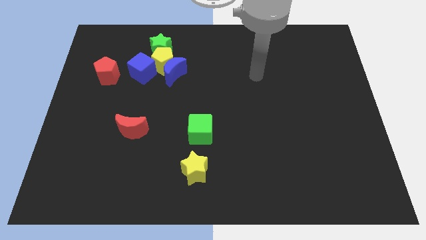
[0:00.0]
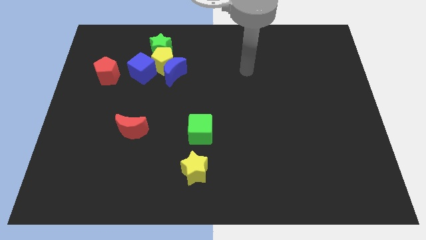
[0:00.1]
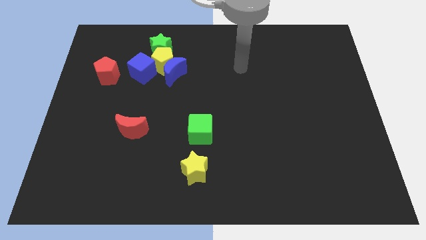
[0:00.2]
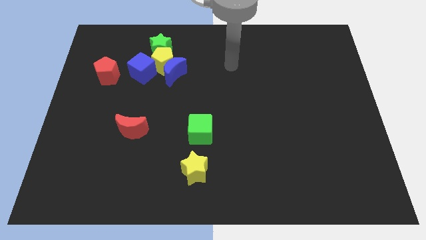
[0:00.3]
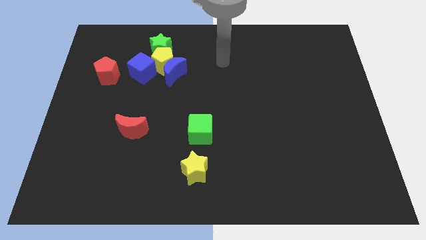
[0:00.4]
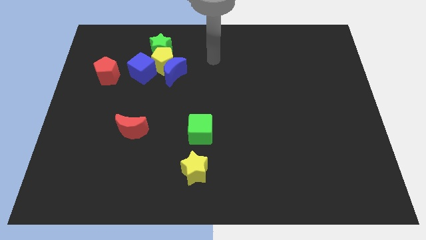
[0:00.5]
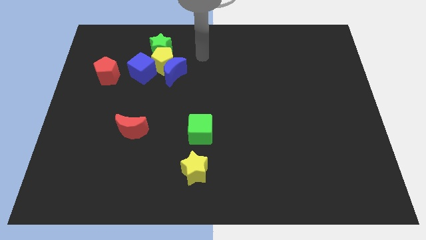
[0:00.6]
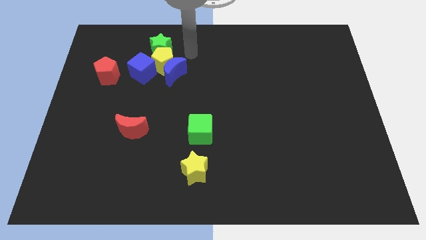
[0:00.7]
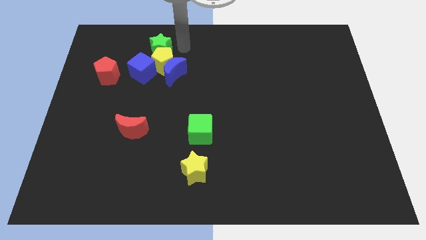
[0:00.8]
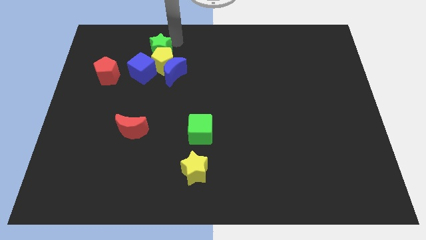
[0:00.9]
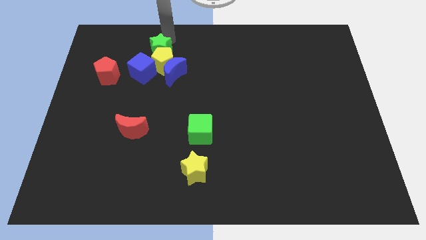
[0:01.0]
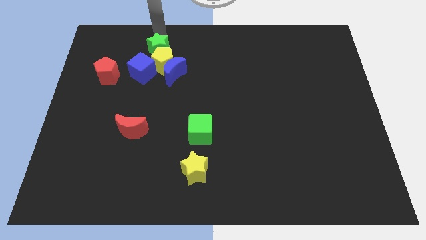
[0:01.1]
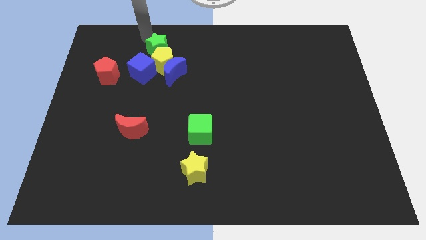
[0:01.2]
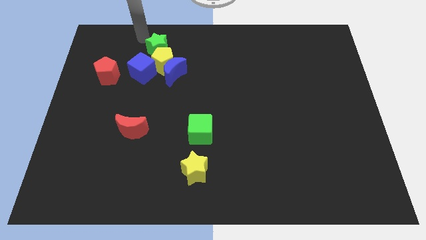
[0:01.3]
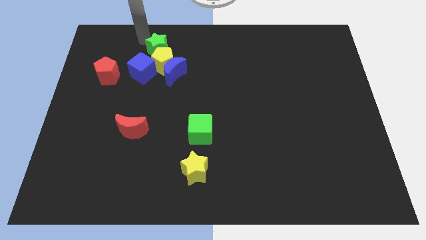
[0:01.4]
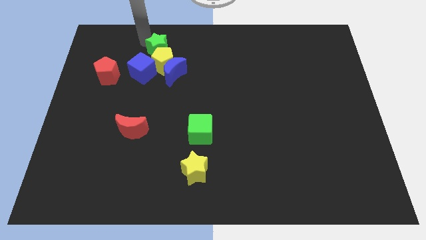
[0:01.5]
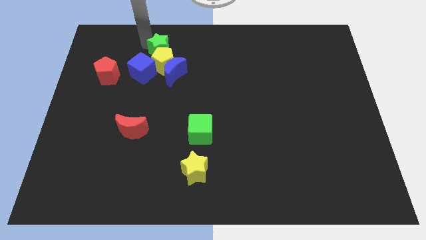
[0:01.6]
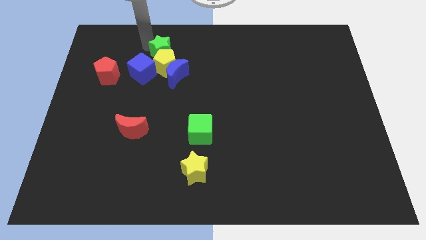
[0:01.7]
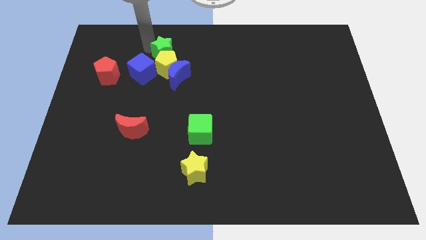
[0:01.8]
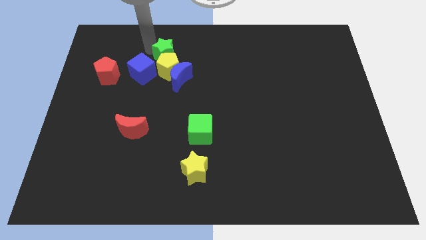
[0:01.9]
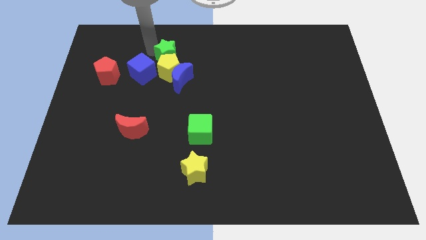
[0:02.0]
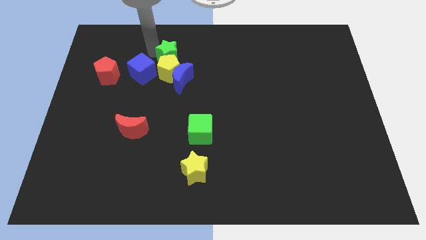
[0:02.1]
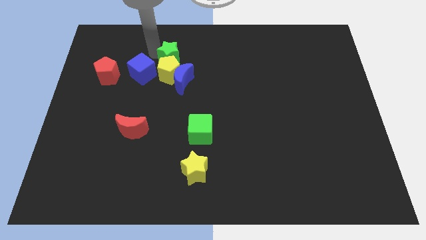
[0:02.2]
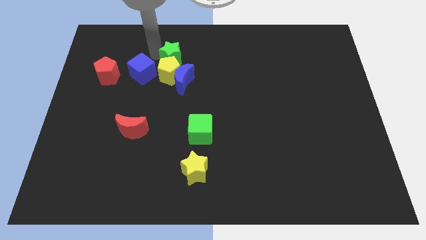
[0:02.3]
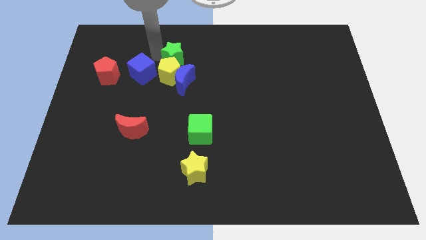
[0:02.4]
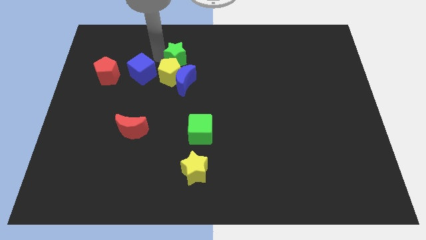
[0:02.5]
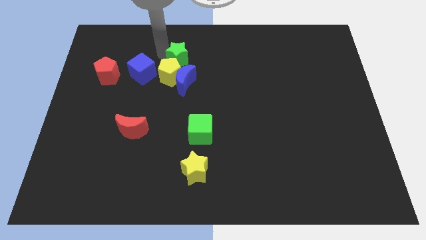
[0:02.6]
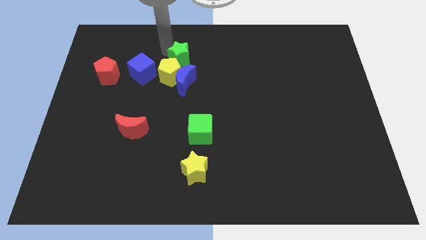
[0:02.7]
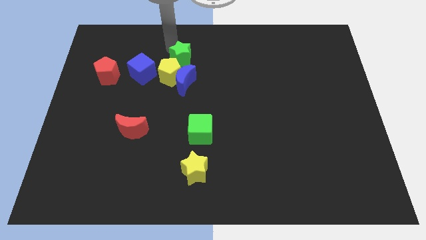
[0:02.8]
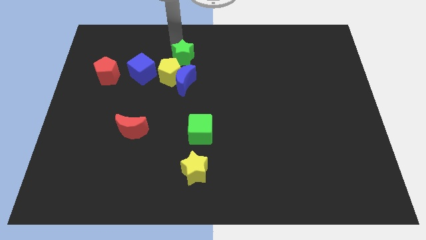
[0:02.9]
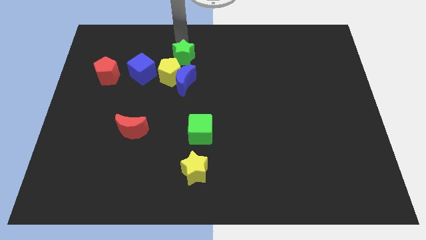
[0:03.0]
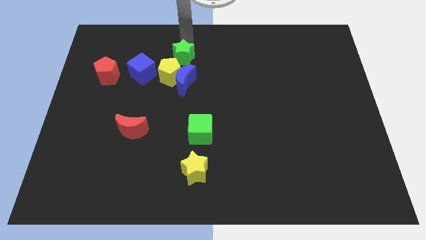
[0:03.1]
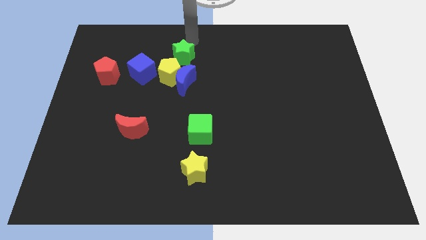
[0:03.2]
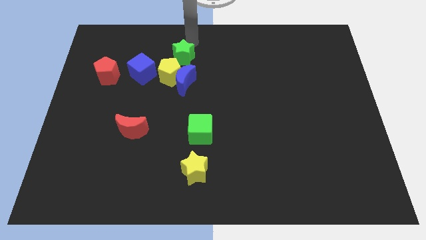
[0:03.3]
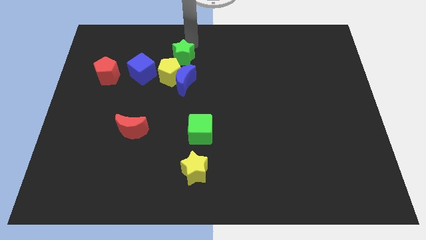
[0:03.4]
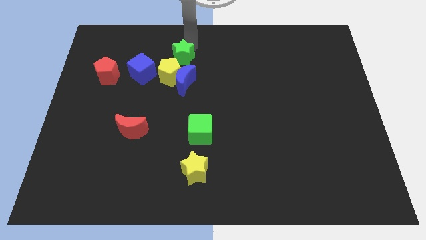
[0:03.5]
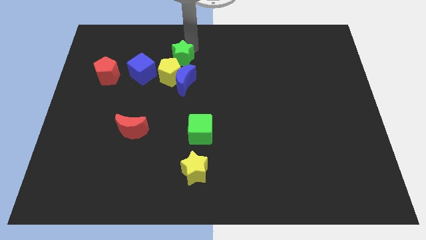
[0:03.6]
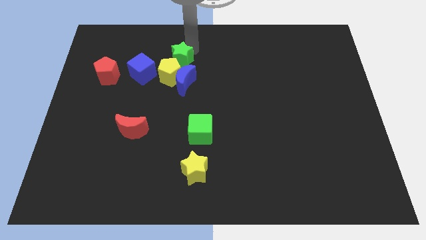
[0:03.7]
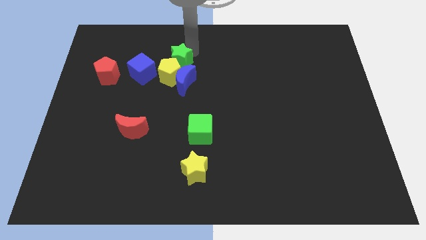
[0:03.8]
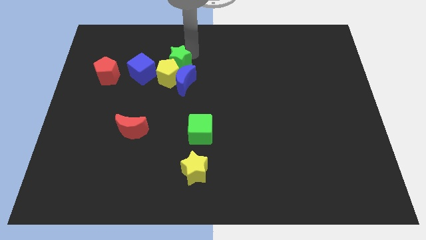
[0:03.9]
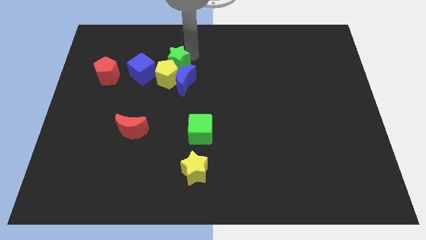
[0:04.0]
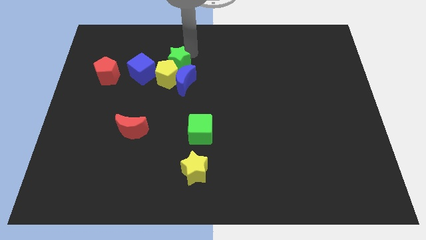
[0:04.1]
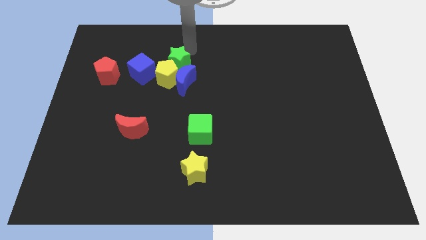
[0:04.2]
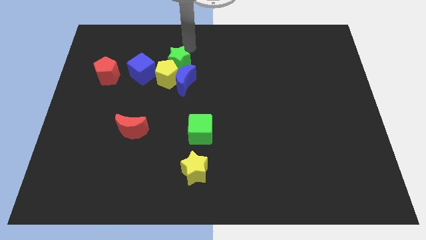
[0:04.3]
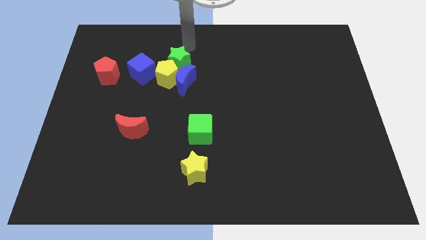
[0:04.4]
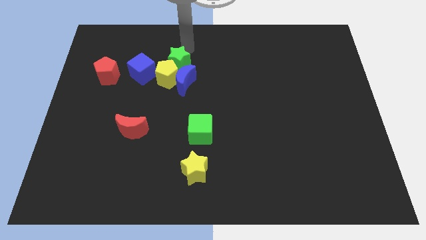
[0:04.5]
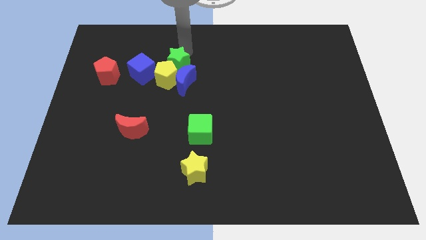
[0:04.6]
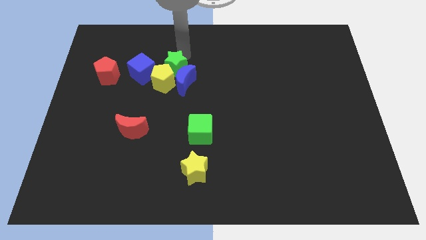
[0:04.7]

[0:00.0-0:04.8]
slide the green star close to the blue moon

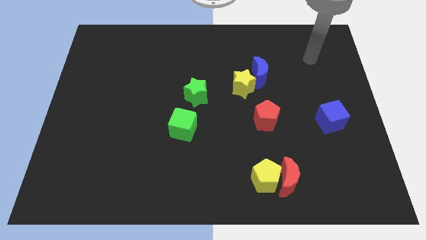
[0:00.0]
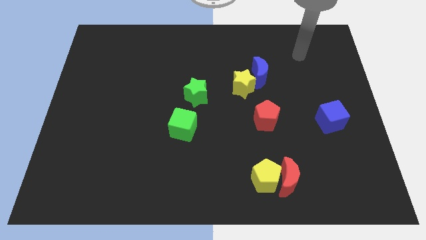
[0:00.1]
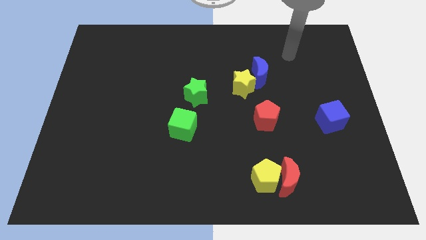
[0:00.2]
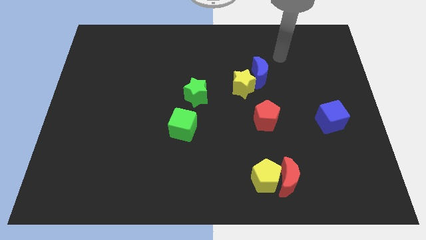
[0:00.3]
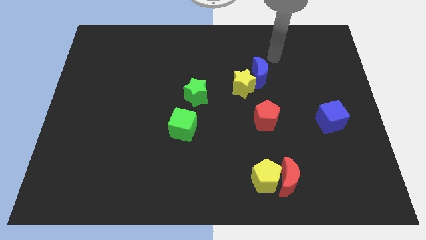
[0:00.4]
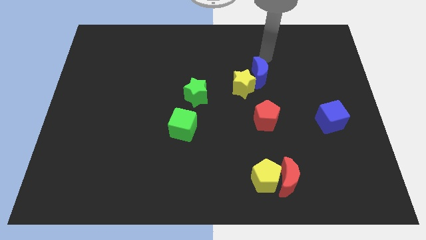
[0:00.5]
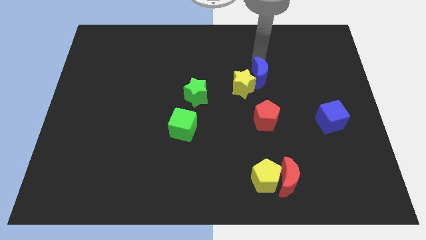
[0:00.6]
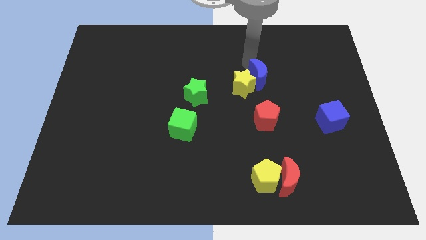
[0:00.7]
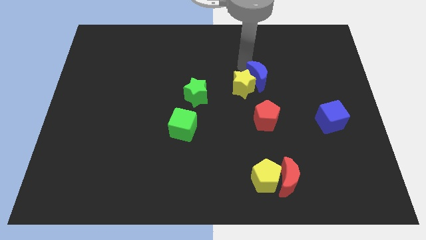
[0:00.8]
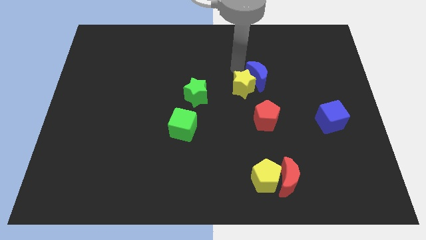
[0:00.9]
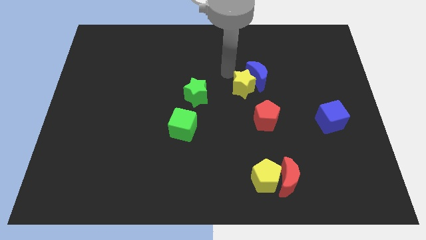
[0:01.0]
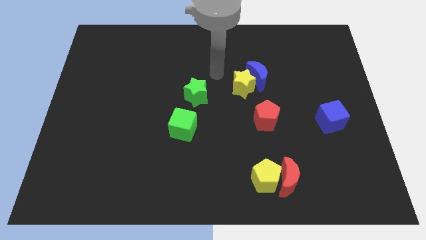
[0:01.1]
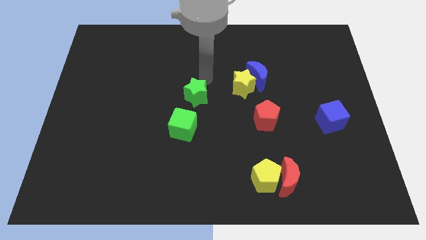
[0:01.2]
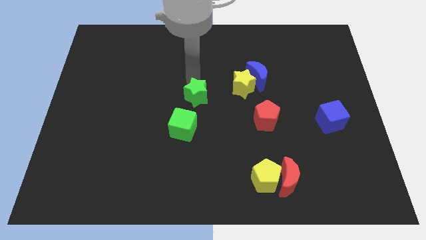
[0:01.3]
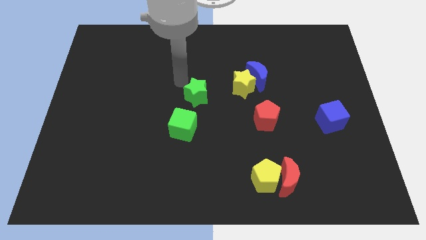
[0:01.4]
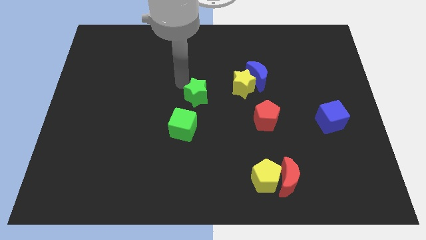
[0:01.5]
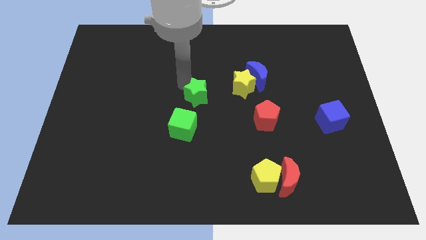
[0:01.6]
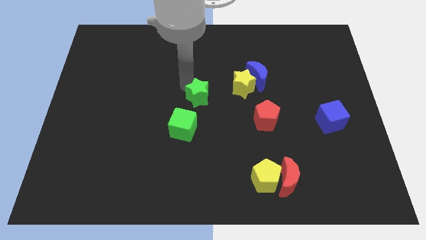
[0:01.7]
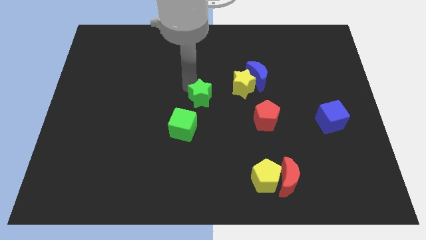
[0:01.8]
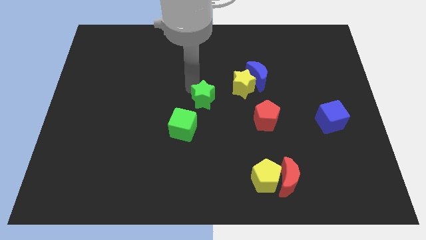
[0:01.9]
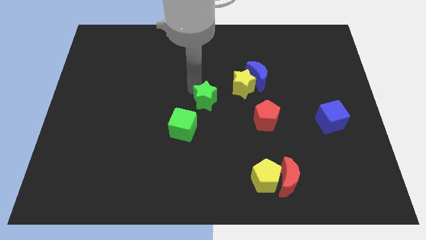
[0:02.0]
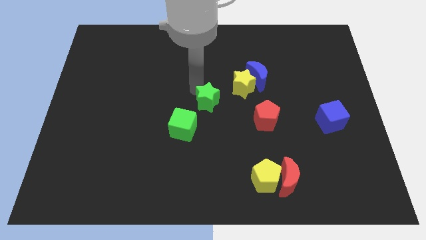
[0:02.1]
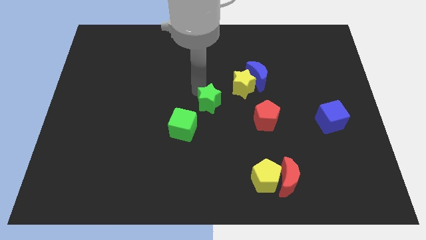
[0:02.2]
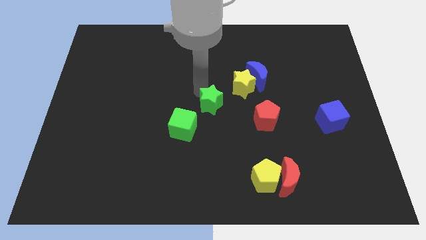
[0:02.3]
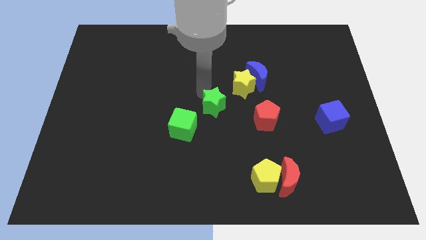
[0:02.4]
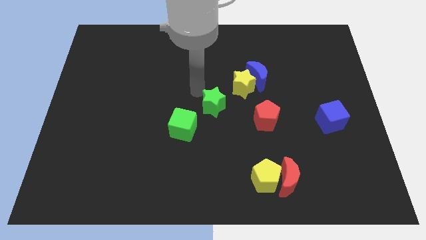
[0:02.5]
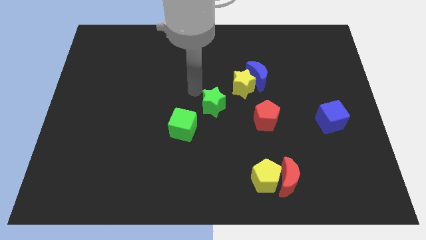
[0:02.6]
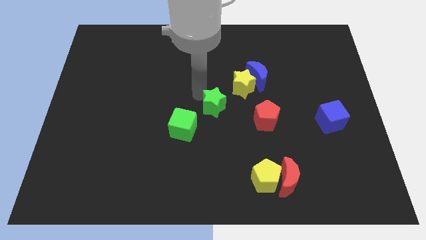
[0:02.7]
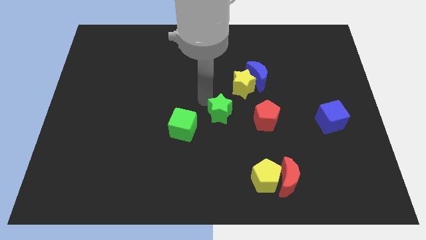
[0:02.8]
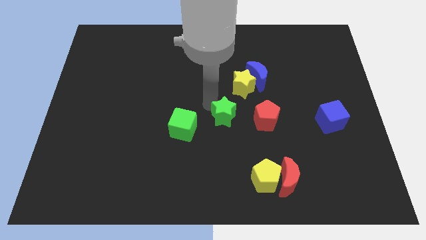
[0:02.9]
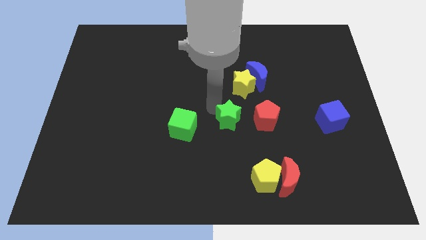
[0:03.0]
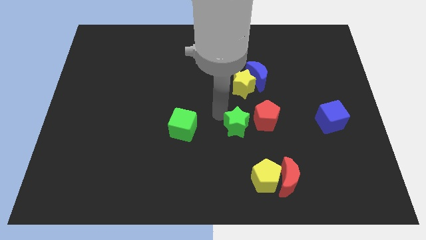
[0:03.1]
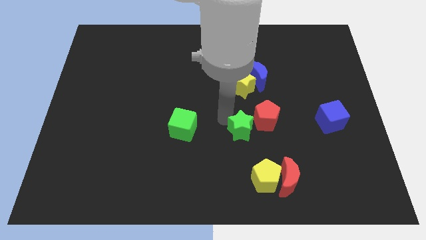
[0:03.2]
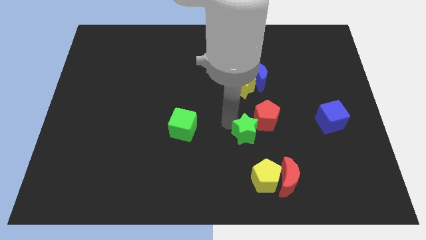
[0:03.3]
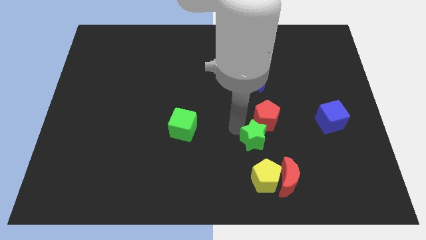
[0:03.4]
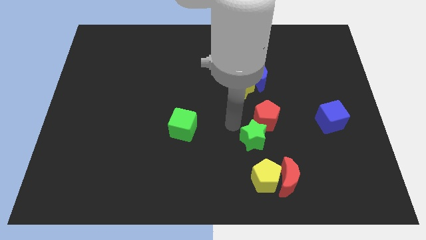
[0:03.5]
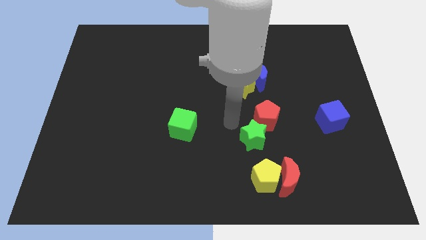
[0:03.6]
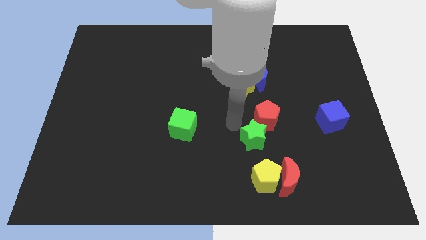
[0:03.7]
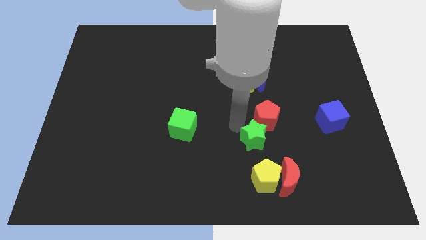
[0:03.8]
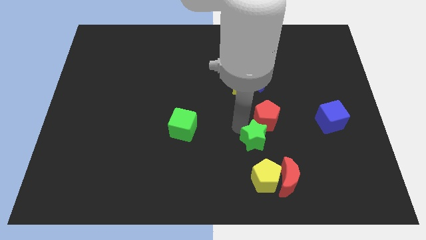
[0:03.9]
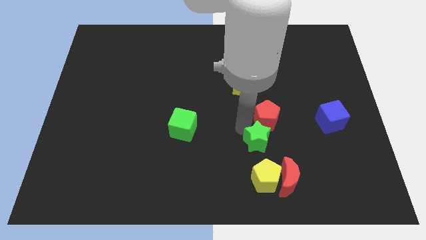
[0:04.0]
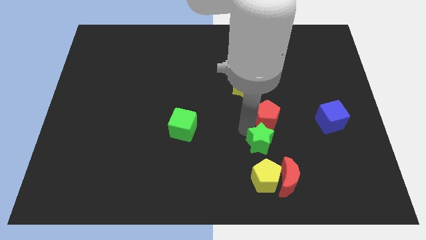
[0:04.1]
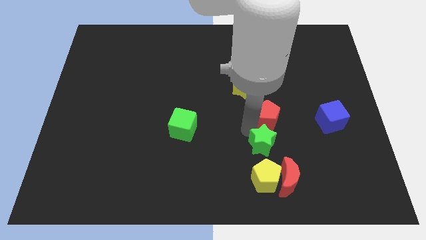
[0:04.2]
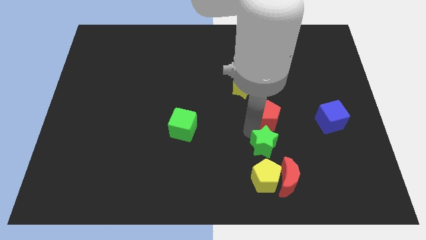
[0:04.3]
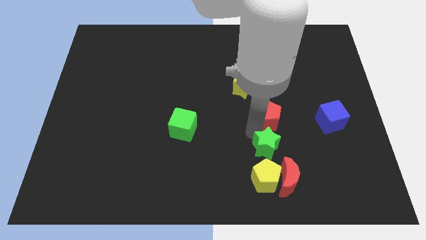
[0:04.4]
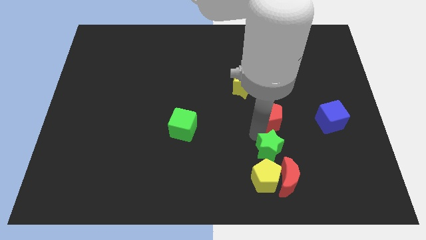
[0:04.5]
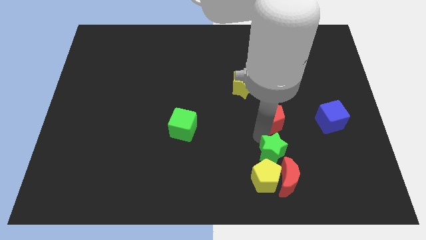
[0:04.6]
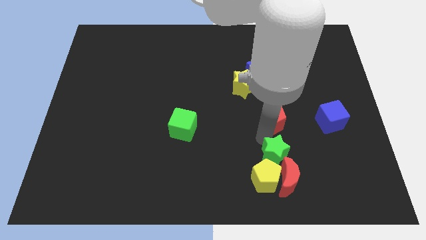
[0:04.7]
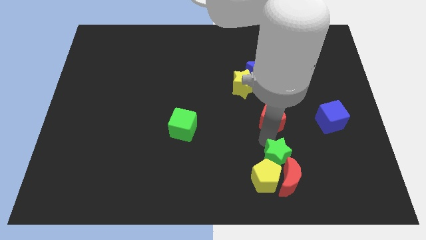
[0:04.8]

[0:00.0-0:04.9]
push the green star to the red moon
